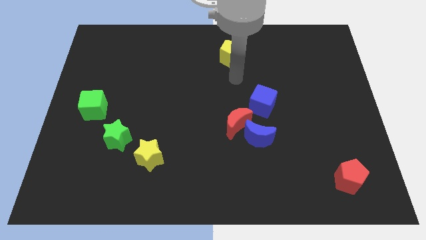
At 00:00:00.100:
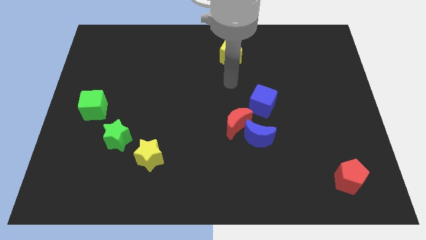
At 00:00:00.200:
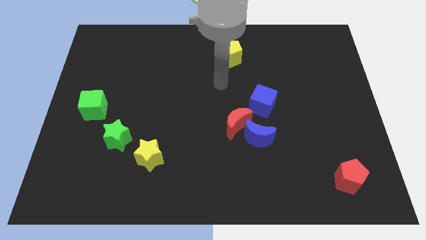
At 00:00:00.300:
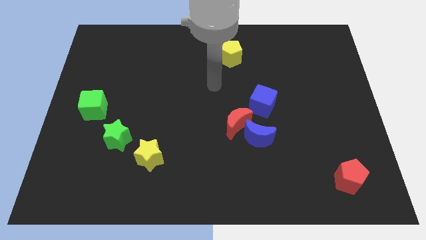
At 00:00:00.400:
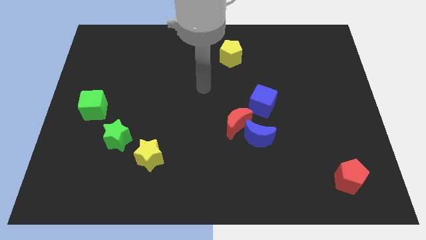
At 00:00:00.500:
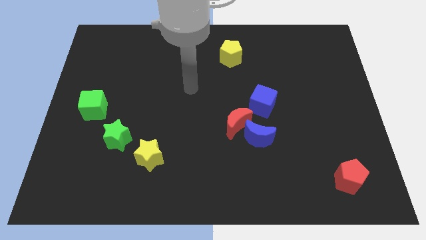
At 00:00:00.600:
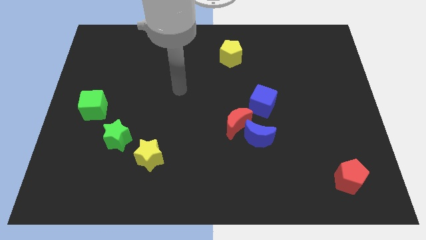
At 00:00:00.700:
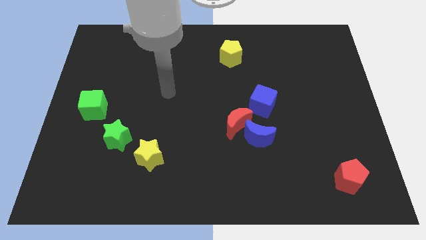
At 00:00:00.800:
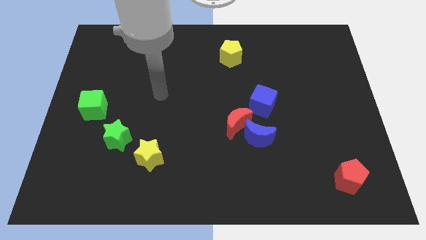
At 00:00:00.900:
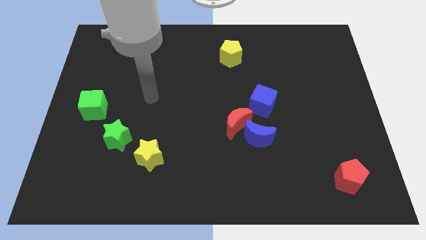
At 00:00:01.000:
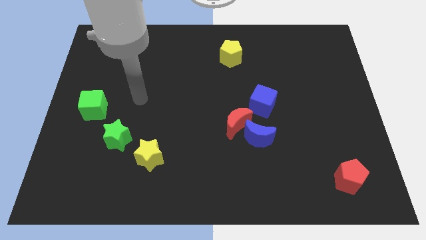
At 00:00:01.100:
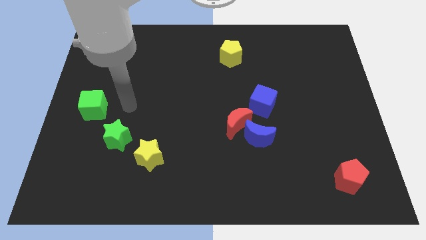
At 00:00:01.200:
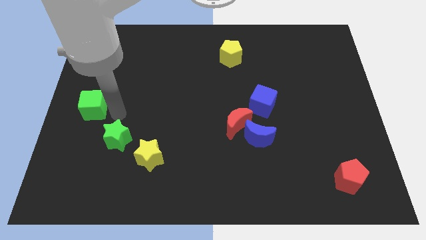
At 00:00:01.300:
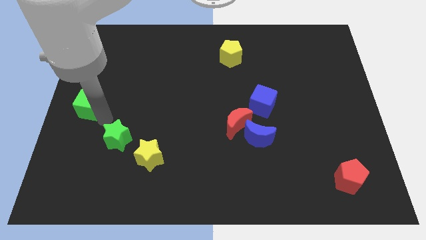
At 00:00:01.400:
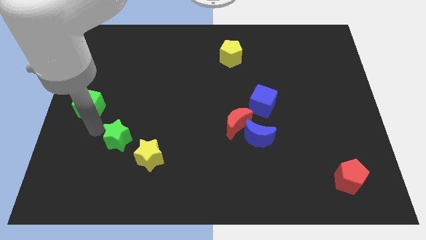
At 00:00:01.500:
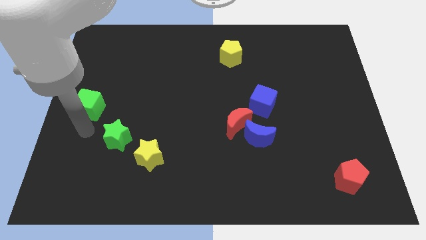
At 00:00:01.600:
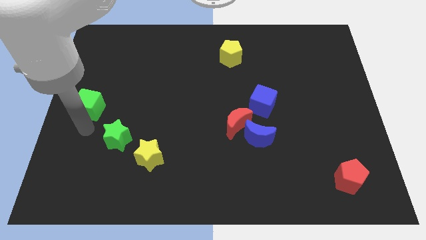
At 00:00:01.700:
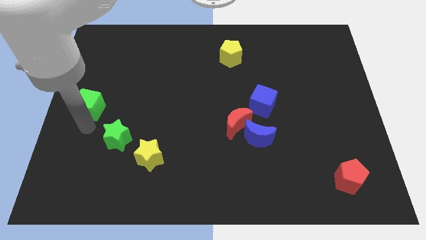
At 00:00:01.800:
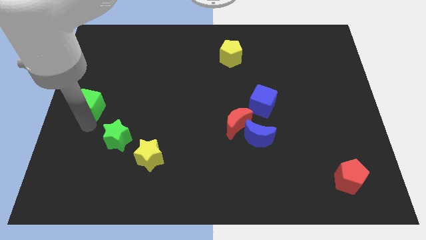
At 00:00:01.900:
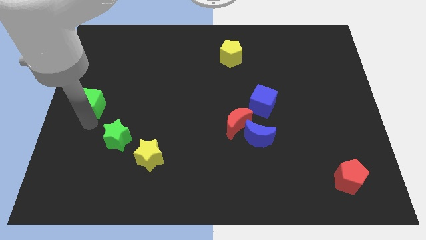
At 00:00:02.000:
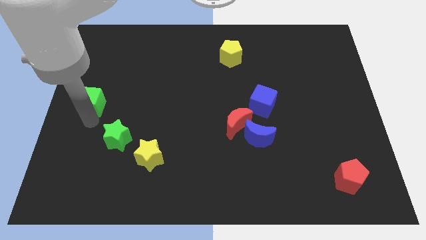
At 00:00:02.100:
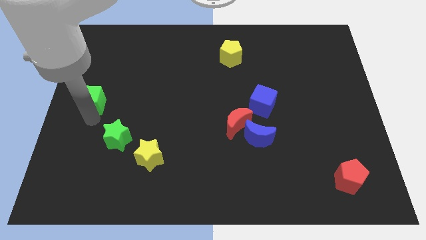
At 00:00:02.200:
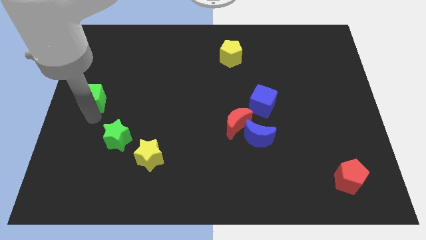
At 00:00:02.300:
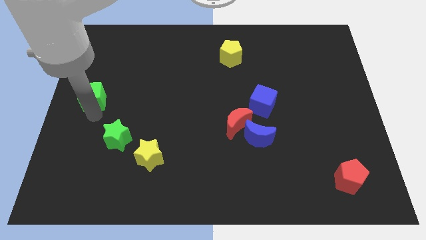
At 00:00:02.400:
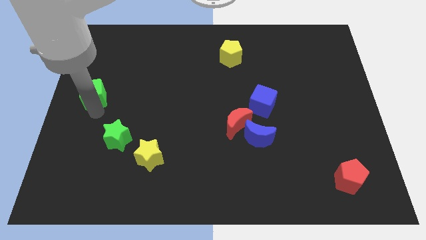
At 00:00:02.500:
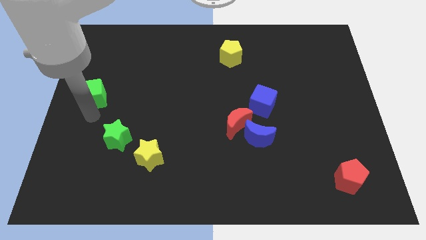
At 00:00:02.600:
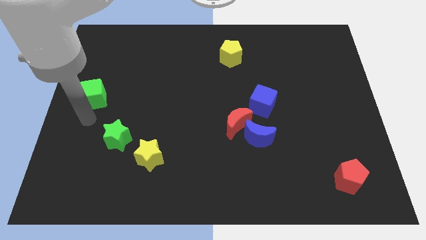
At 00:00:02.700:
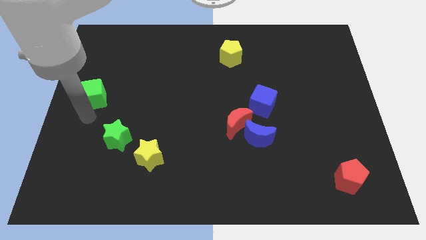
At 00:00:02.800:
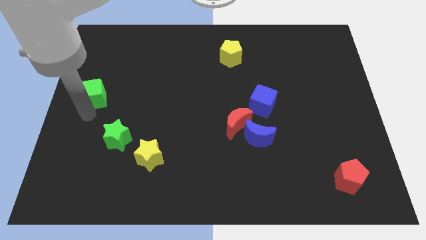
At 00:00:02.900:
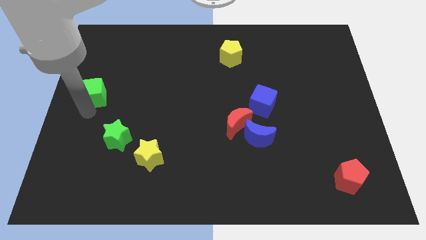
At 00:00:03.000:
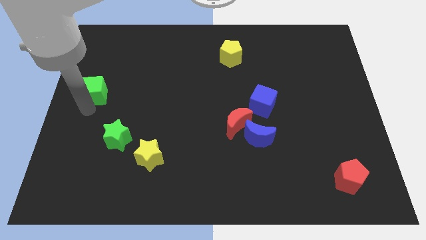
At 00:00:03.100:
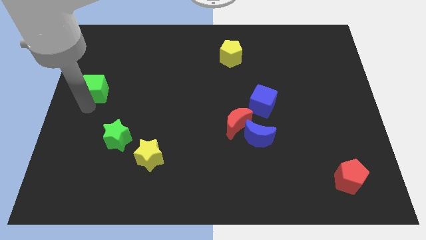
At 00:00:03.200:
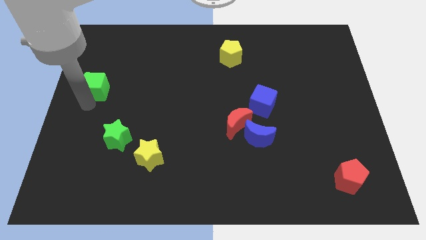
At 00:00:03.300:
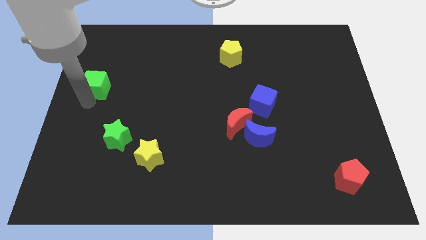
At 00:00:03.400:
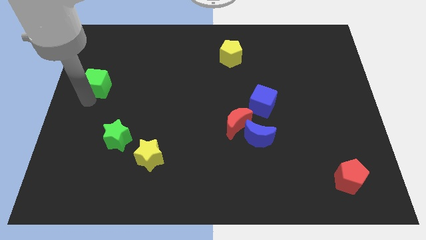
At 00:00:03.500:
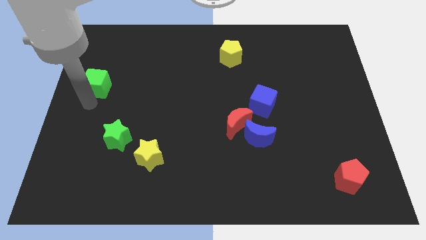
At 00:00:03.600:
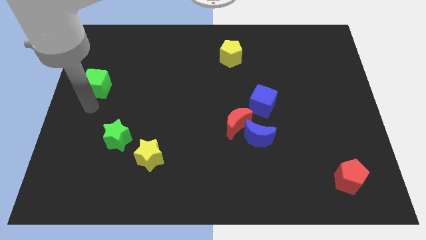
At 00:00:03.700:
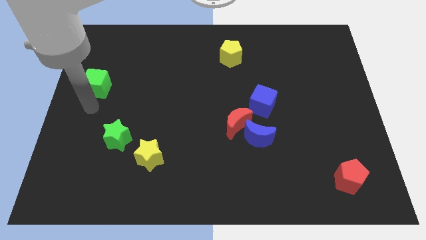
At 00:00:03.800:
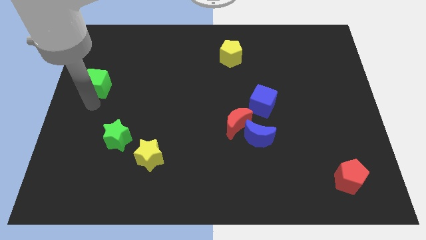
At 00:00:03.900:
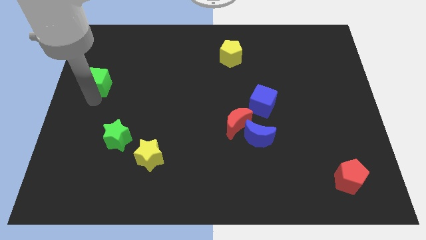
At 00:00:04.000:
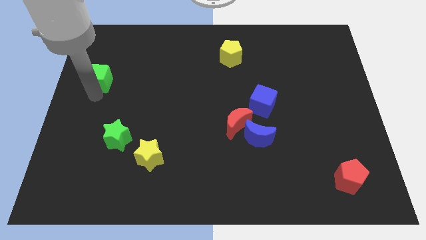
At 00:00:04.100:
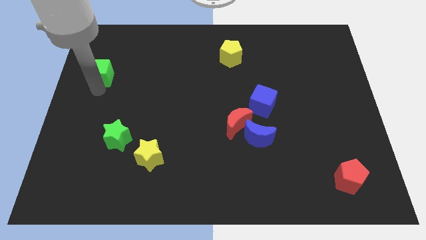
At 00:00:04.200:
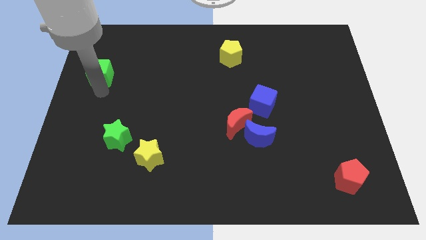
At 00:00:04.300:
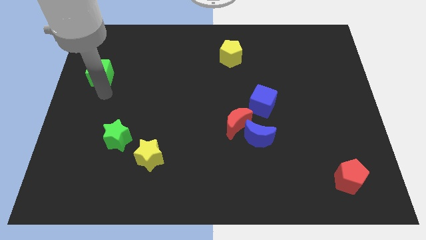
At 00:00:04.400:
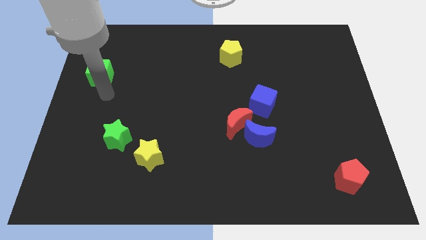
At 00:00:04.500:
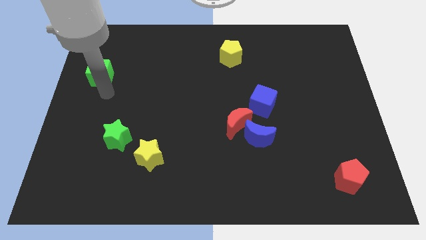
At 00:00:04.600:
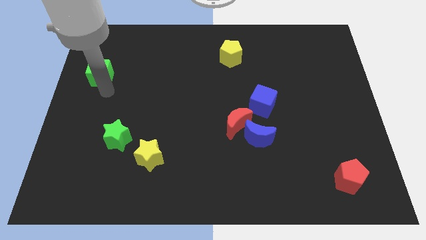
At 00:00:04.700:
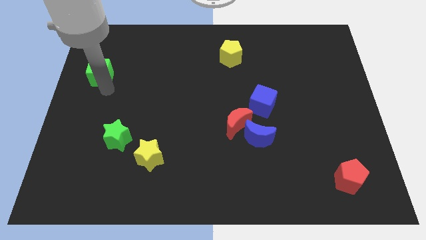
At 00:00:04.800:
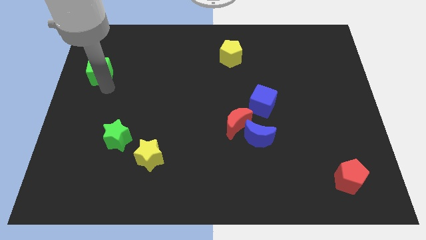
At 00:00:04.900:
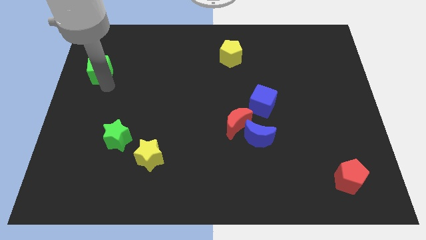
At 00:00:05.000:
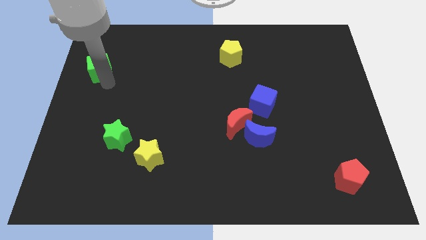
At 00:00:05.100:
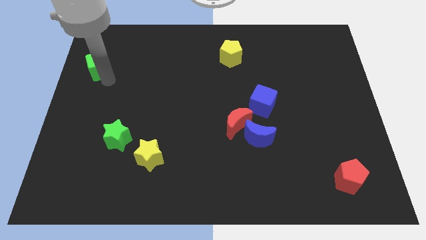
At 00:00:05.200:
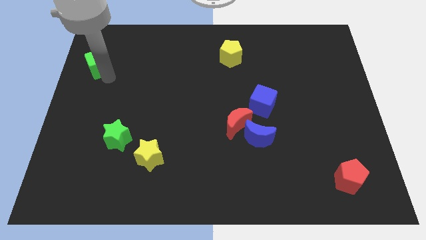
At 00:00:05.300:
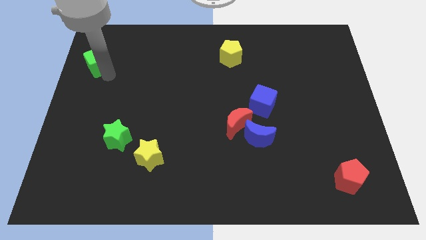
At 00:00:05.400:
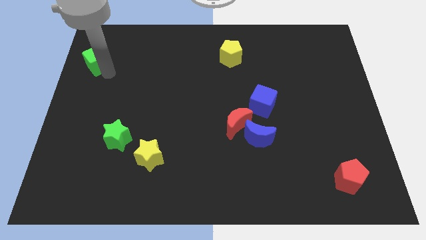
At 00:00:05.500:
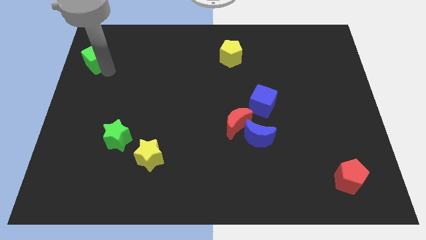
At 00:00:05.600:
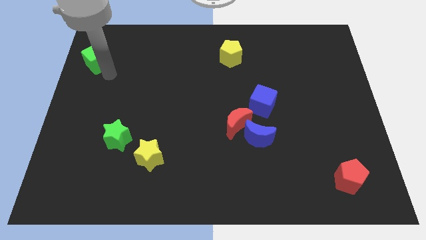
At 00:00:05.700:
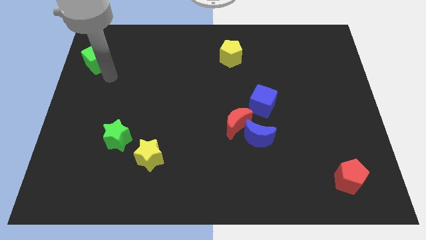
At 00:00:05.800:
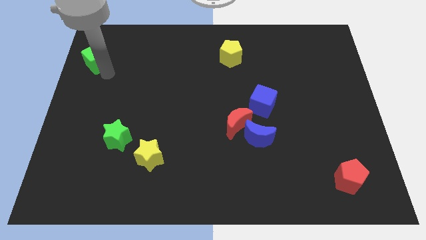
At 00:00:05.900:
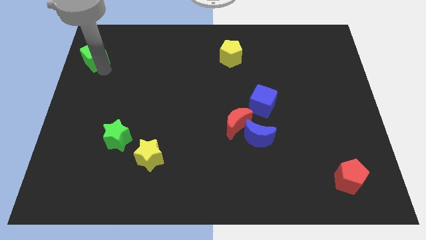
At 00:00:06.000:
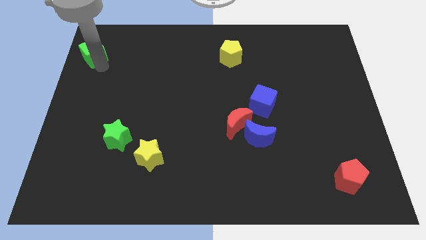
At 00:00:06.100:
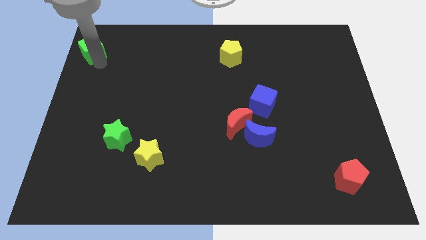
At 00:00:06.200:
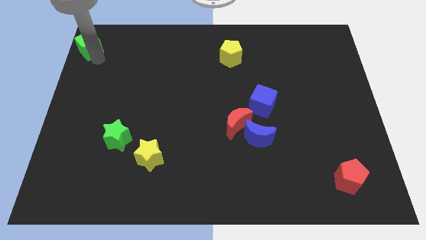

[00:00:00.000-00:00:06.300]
slide the green cube to the top left of the board

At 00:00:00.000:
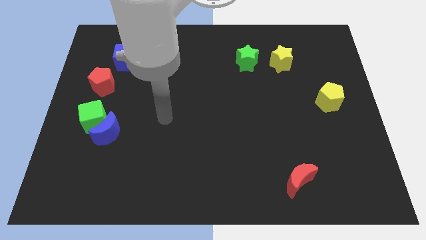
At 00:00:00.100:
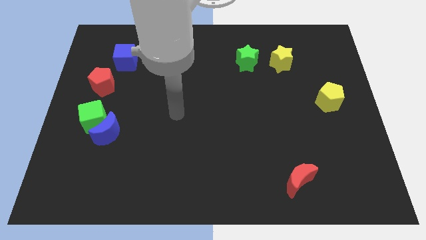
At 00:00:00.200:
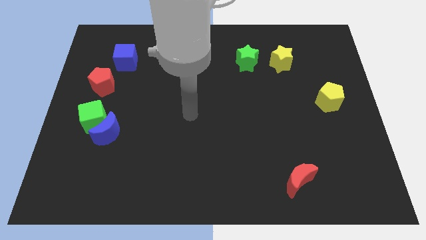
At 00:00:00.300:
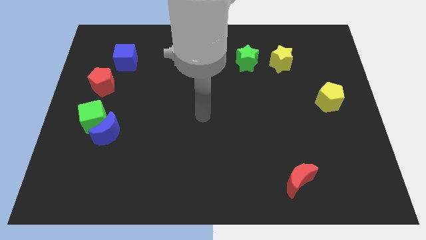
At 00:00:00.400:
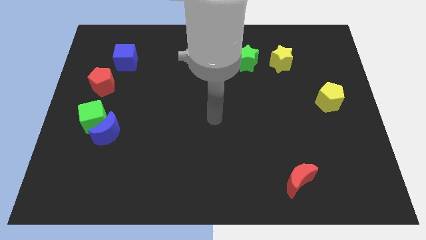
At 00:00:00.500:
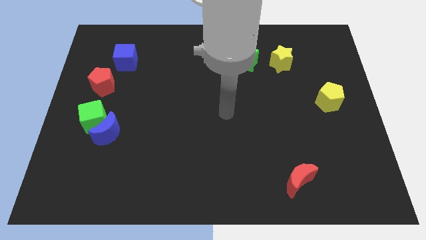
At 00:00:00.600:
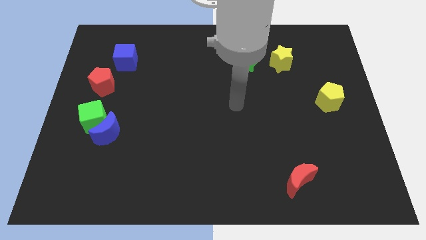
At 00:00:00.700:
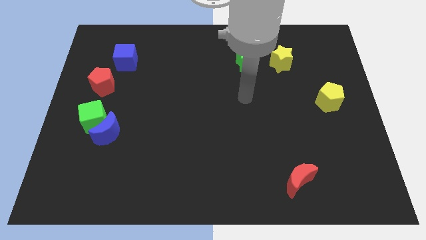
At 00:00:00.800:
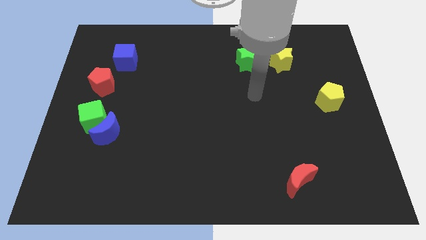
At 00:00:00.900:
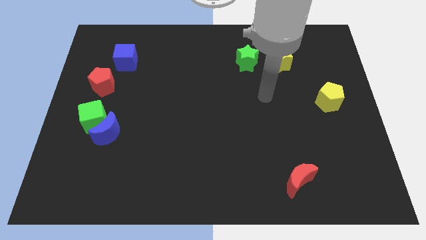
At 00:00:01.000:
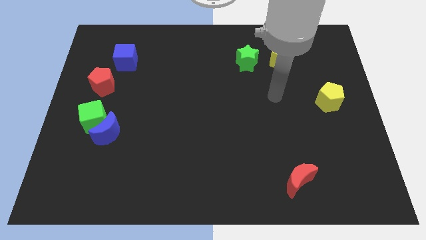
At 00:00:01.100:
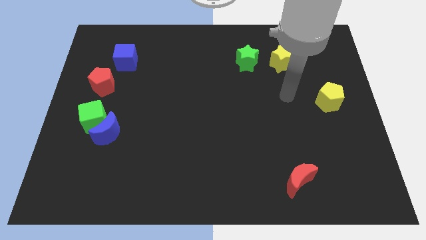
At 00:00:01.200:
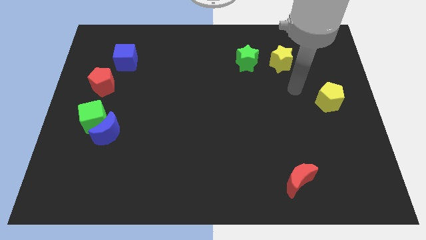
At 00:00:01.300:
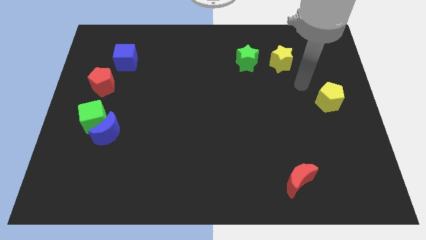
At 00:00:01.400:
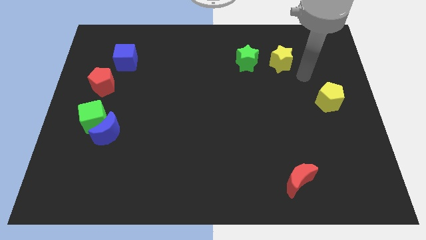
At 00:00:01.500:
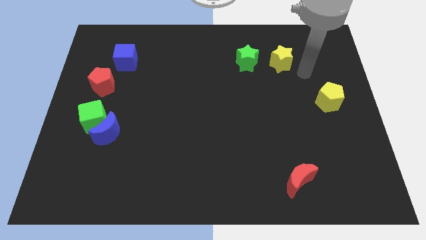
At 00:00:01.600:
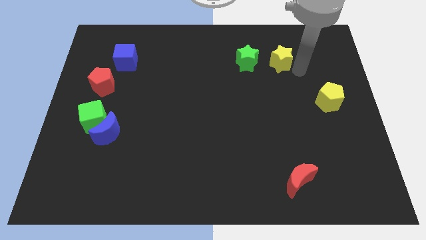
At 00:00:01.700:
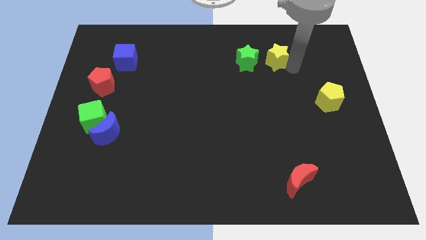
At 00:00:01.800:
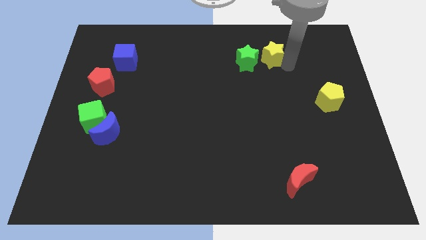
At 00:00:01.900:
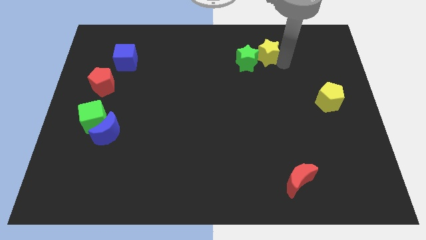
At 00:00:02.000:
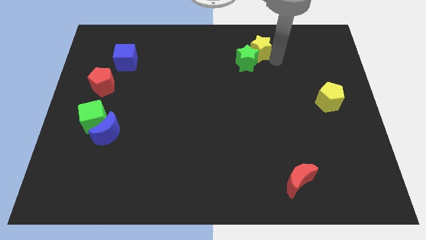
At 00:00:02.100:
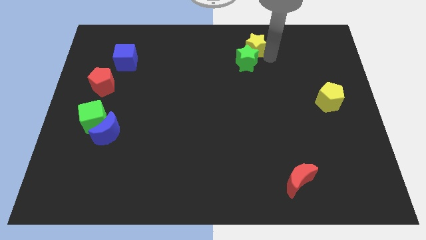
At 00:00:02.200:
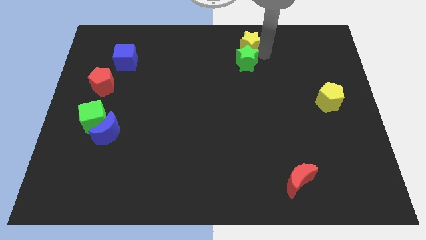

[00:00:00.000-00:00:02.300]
slide the yellow star to the top
